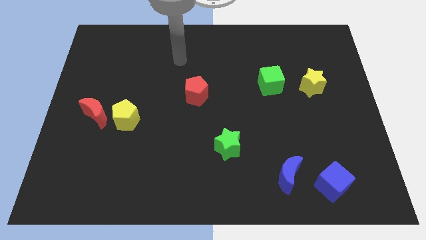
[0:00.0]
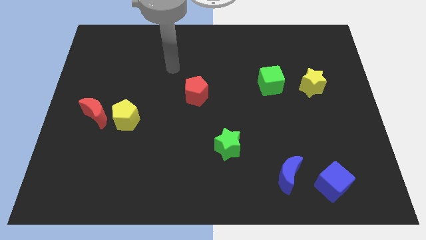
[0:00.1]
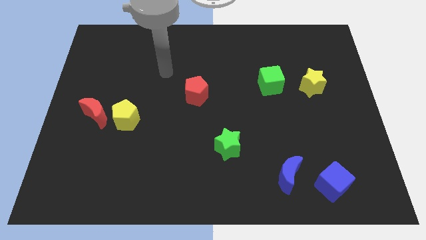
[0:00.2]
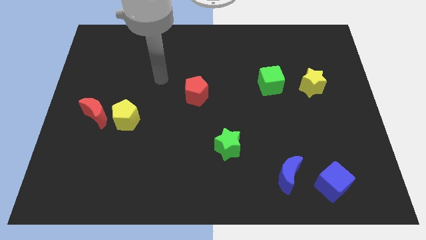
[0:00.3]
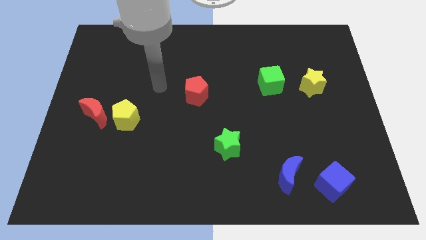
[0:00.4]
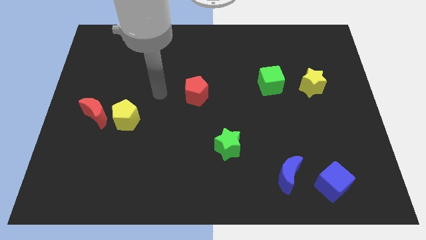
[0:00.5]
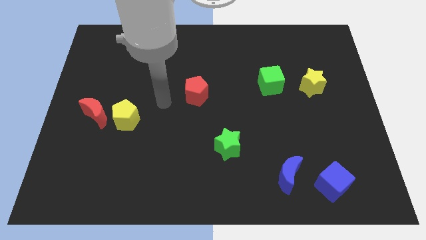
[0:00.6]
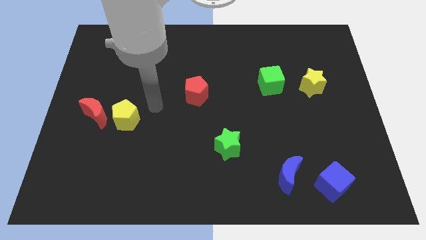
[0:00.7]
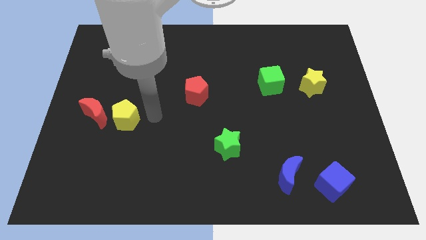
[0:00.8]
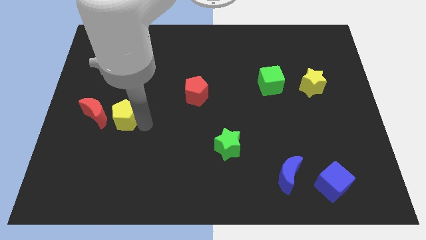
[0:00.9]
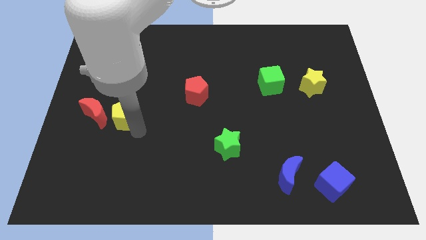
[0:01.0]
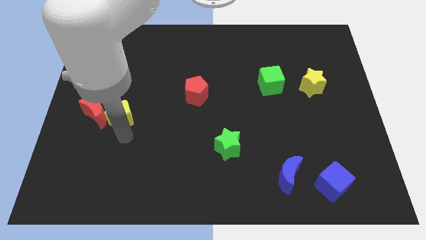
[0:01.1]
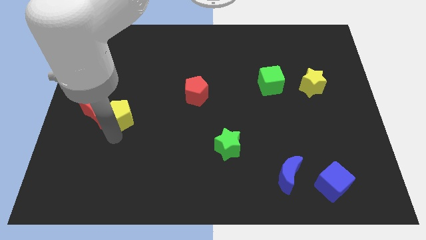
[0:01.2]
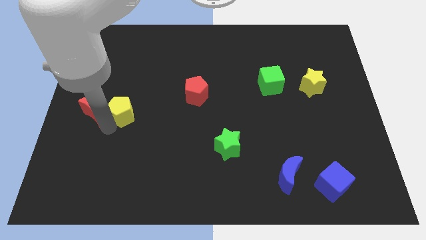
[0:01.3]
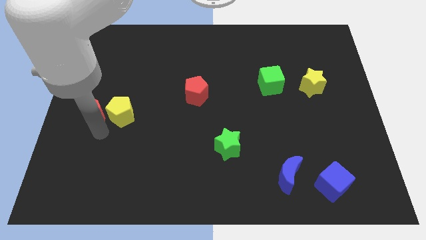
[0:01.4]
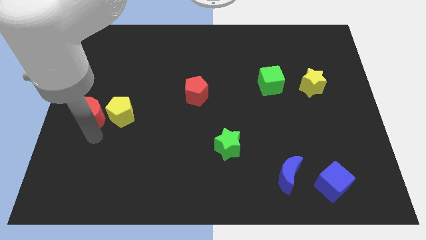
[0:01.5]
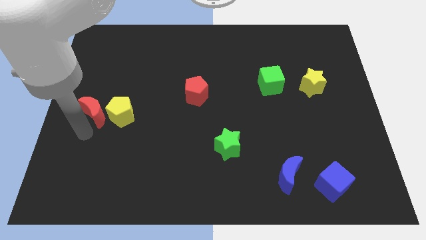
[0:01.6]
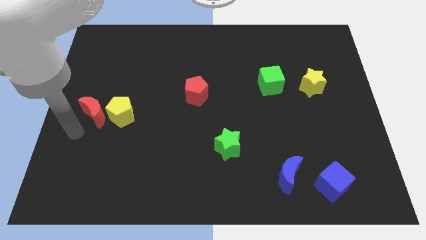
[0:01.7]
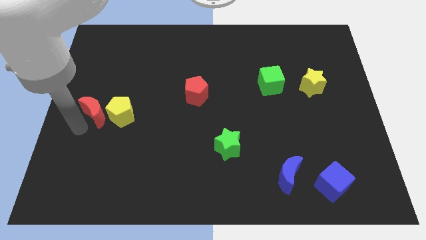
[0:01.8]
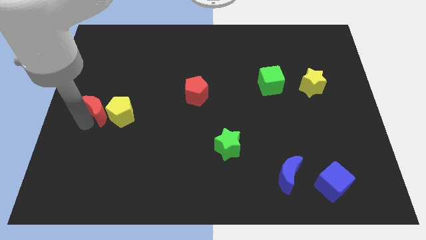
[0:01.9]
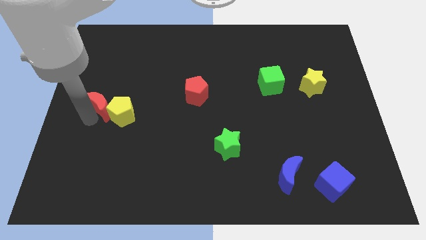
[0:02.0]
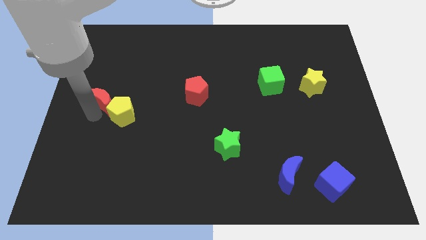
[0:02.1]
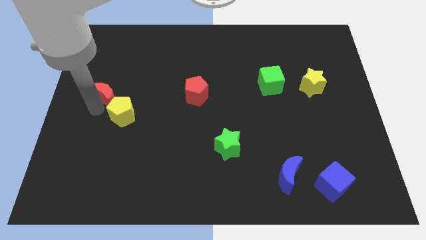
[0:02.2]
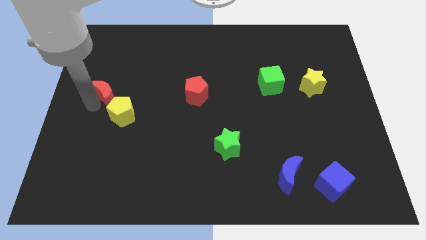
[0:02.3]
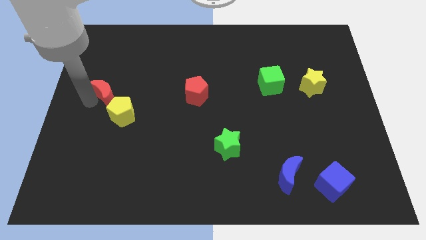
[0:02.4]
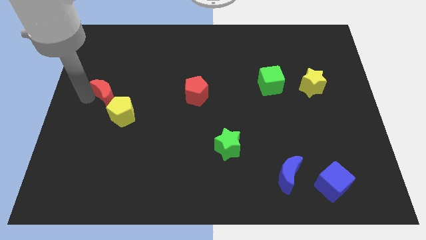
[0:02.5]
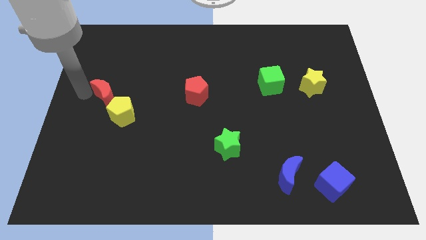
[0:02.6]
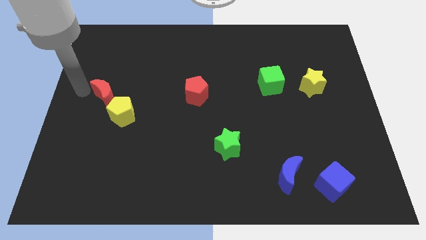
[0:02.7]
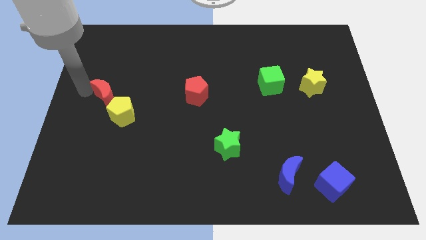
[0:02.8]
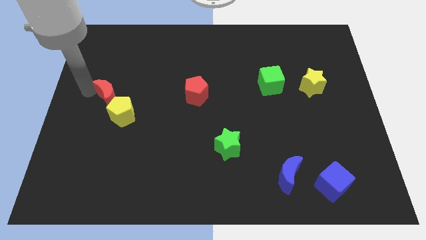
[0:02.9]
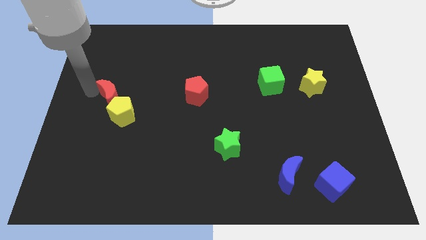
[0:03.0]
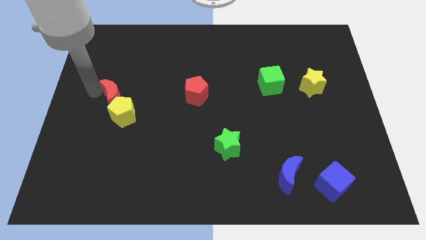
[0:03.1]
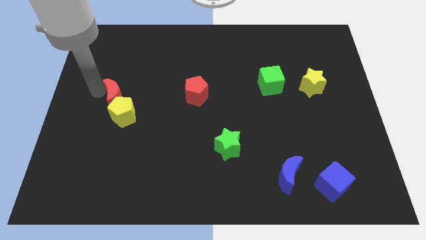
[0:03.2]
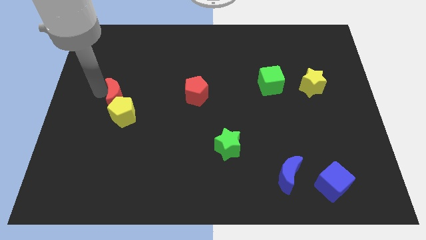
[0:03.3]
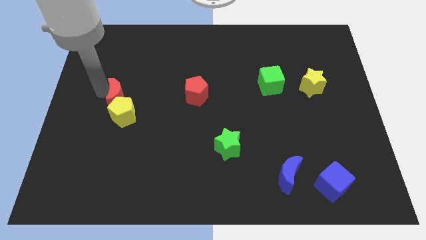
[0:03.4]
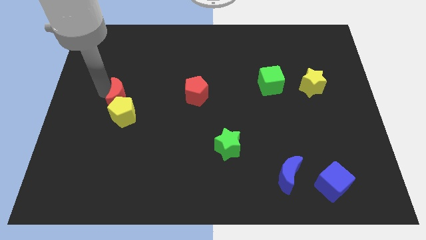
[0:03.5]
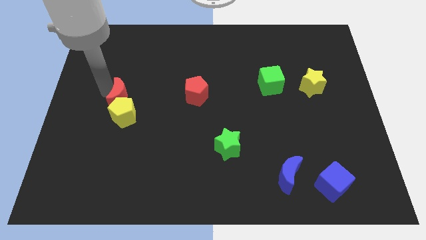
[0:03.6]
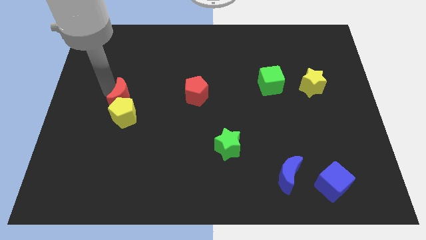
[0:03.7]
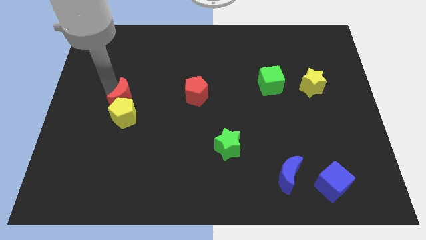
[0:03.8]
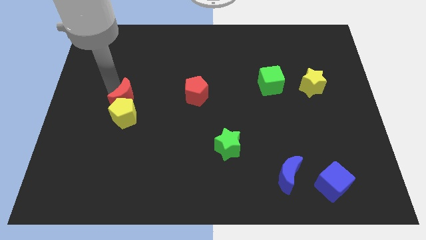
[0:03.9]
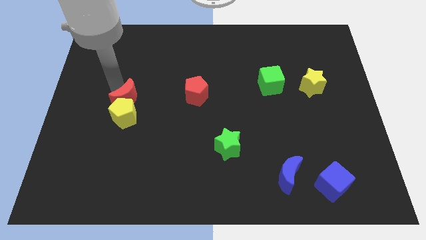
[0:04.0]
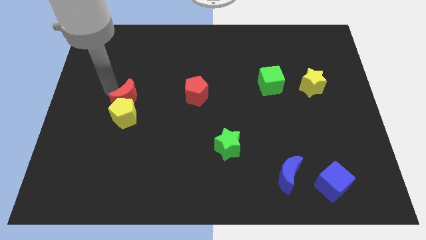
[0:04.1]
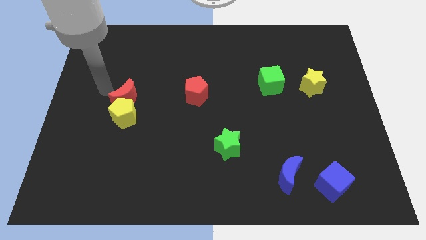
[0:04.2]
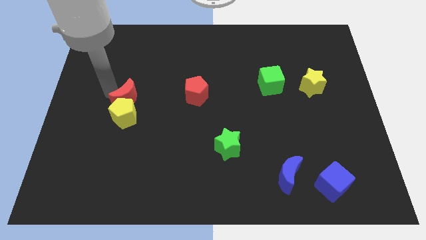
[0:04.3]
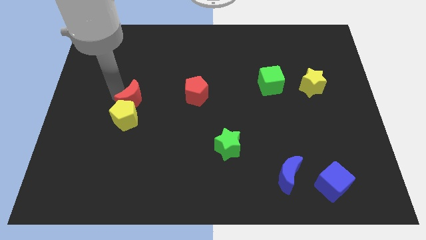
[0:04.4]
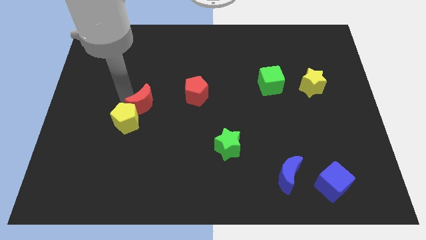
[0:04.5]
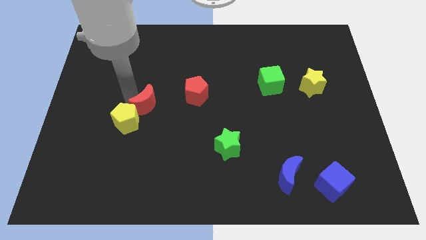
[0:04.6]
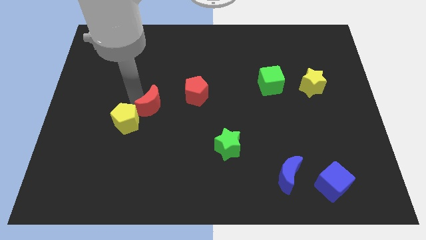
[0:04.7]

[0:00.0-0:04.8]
slide the red moon just right of the yellow pentagon

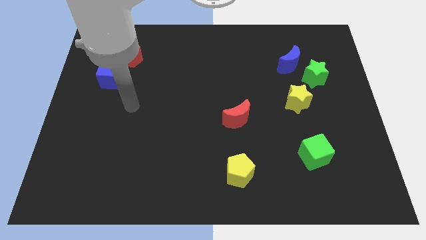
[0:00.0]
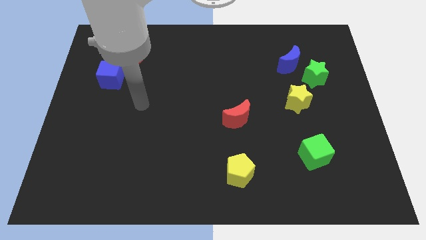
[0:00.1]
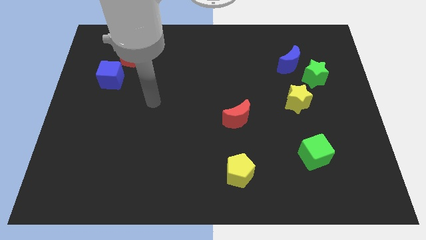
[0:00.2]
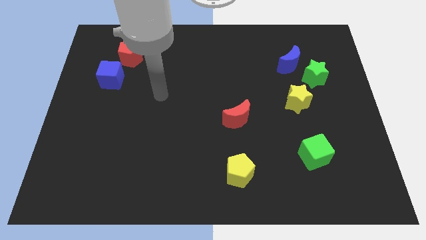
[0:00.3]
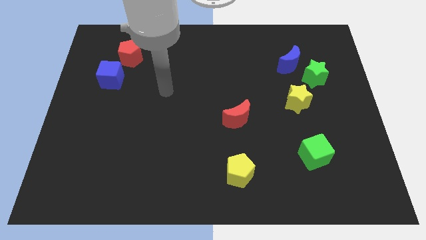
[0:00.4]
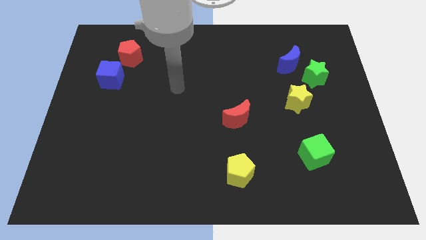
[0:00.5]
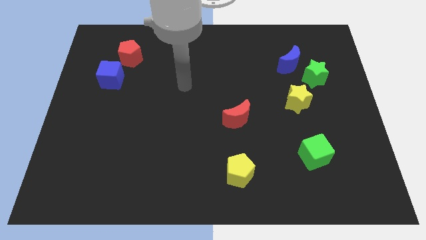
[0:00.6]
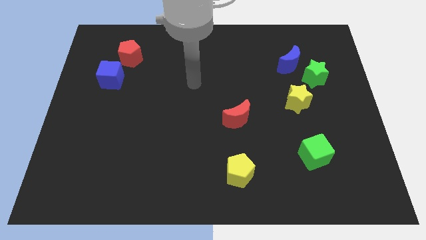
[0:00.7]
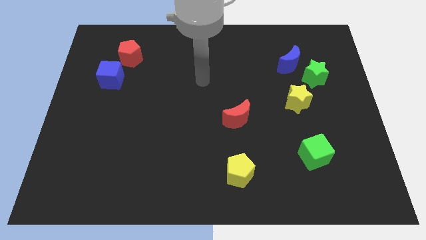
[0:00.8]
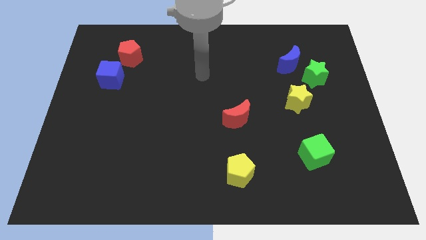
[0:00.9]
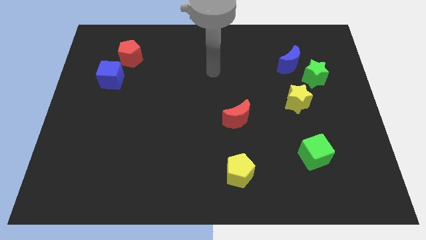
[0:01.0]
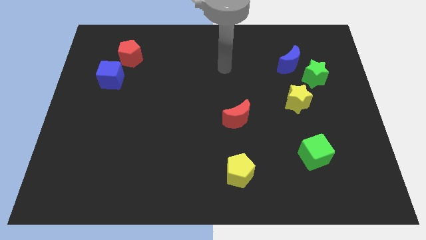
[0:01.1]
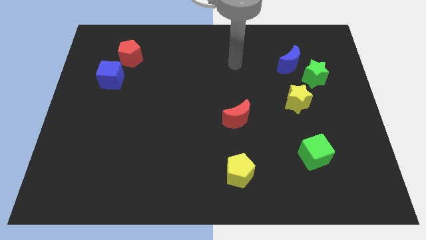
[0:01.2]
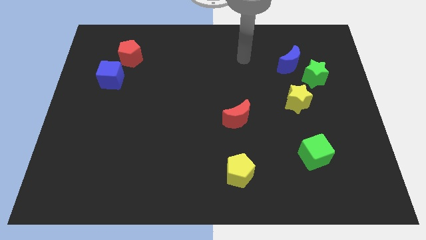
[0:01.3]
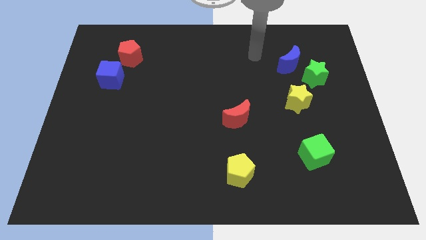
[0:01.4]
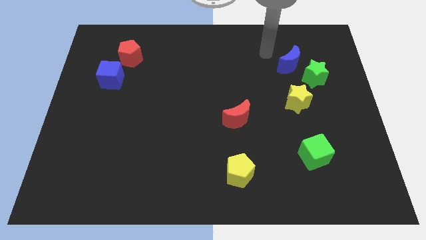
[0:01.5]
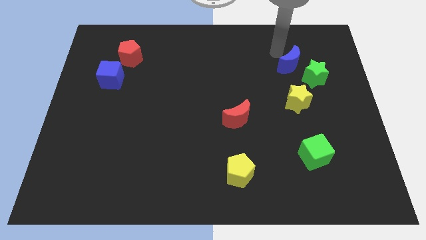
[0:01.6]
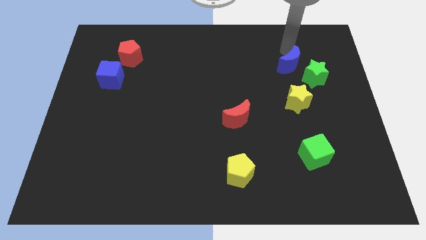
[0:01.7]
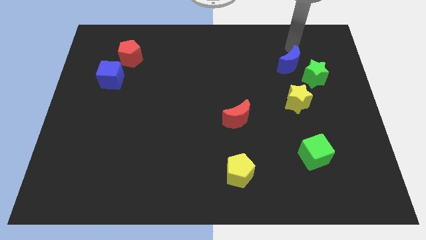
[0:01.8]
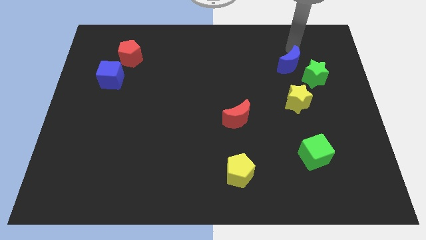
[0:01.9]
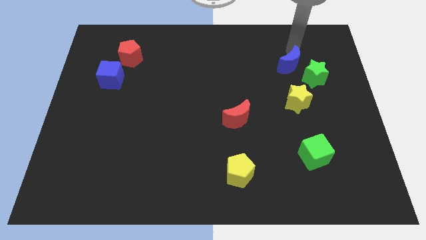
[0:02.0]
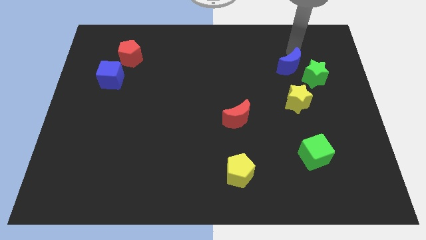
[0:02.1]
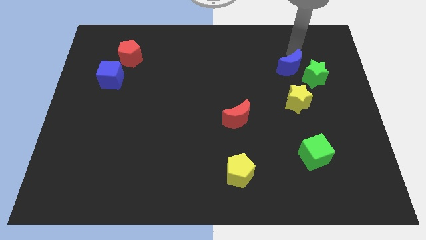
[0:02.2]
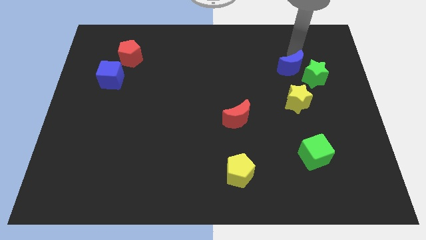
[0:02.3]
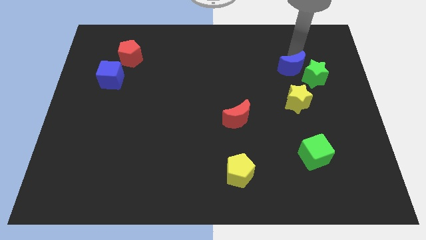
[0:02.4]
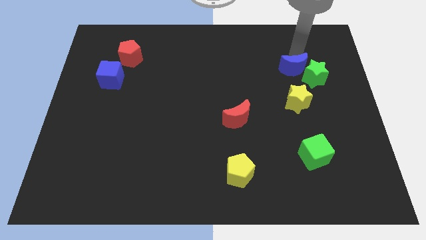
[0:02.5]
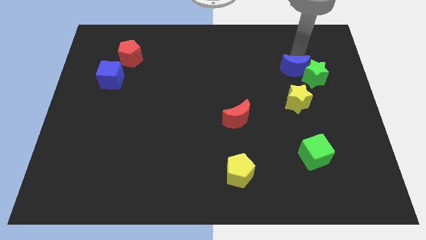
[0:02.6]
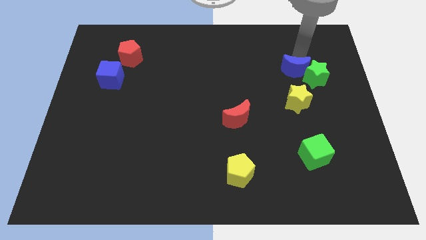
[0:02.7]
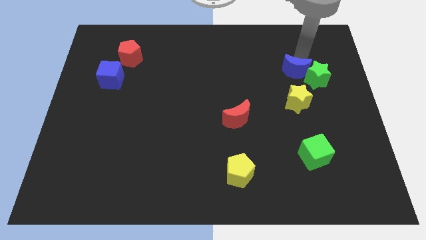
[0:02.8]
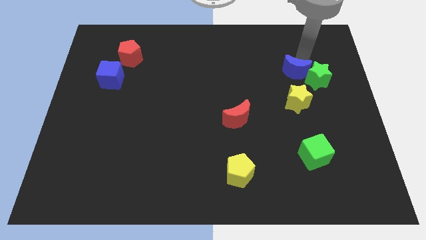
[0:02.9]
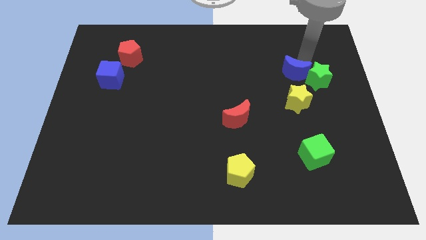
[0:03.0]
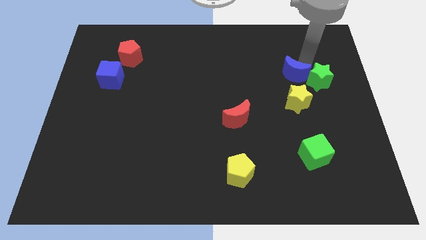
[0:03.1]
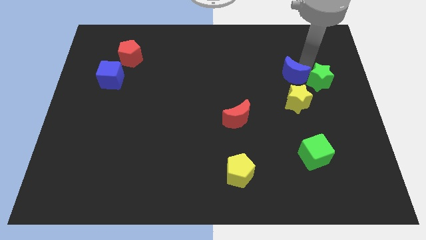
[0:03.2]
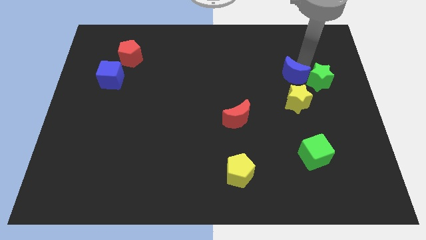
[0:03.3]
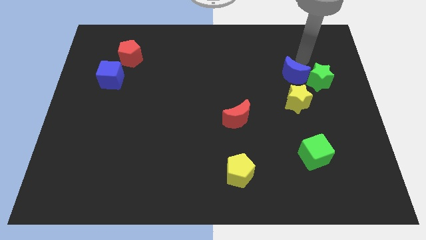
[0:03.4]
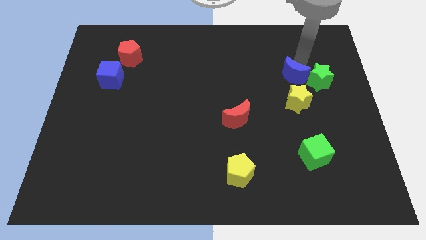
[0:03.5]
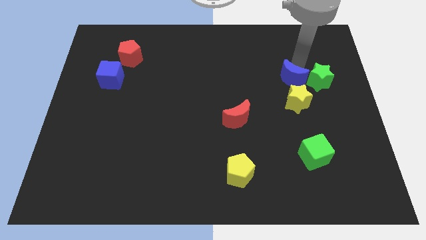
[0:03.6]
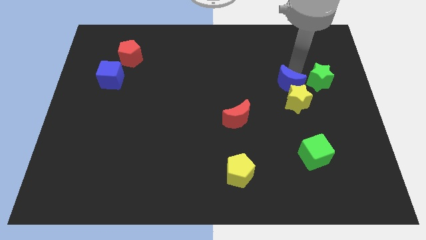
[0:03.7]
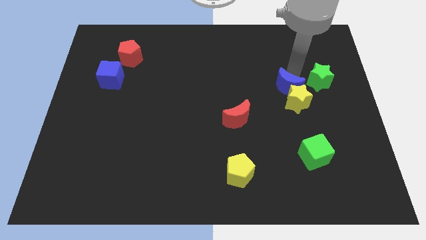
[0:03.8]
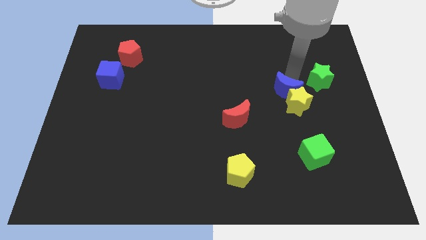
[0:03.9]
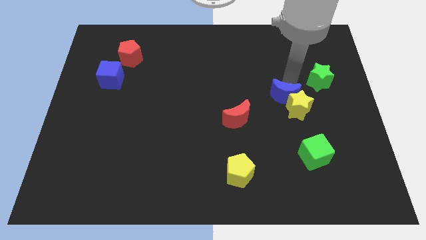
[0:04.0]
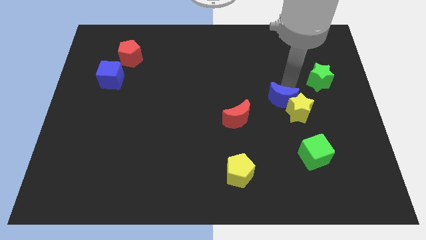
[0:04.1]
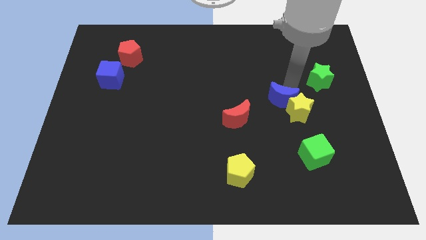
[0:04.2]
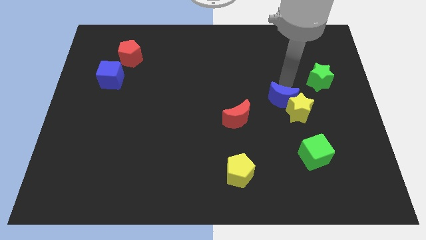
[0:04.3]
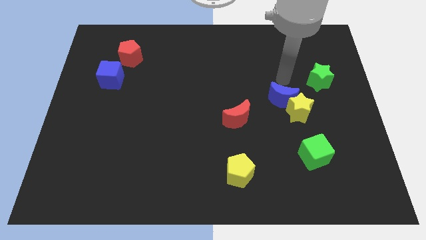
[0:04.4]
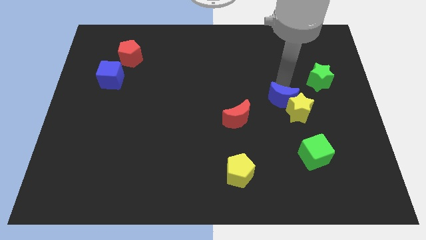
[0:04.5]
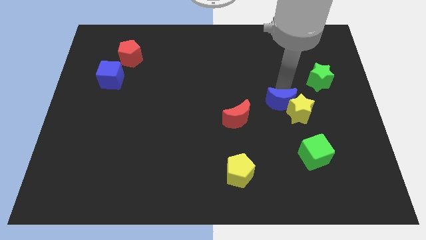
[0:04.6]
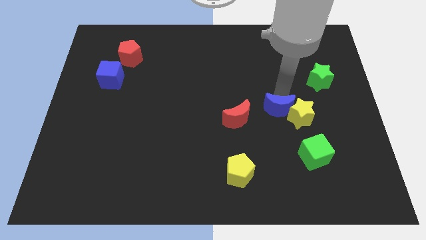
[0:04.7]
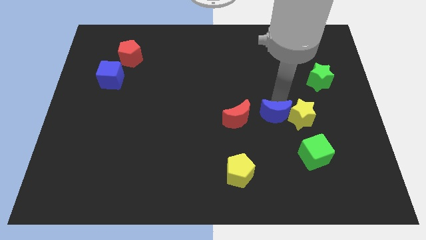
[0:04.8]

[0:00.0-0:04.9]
put the blue moon to the bottom left of the yellow star
